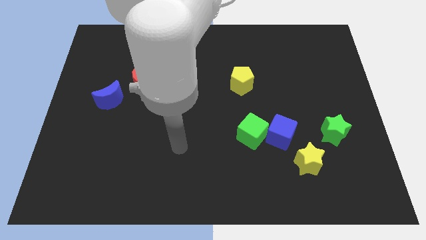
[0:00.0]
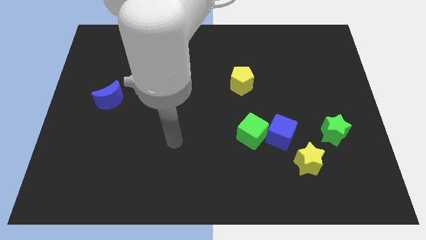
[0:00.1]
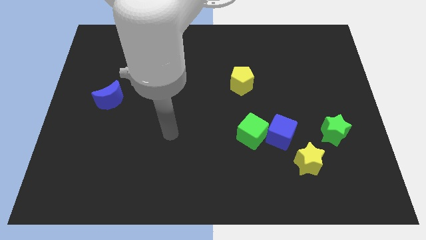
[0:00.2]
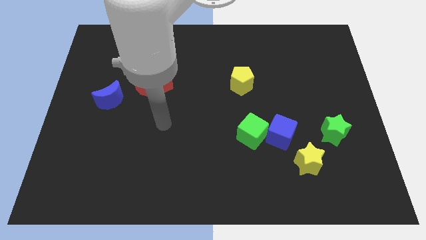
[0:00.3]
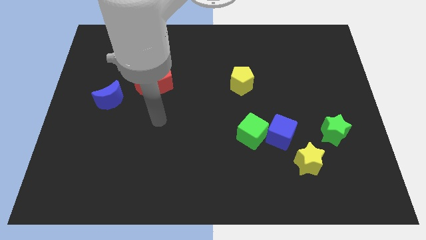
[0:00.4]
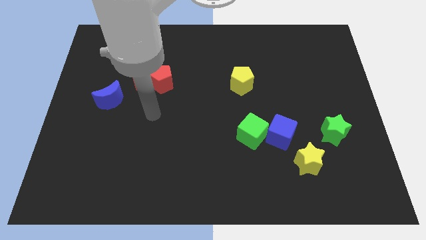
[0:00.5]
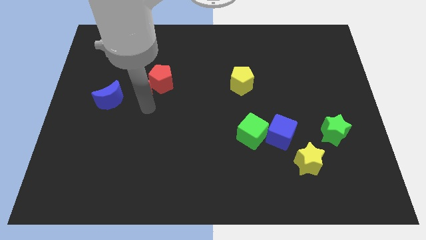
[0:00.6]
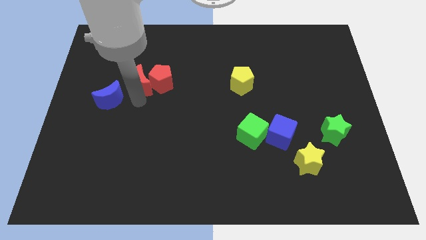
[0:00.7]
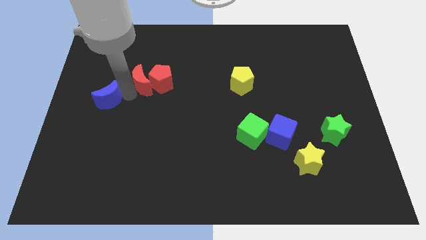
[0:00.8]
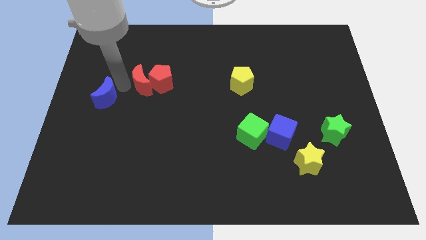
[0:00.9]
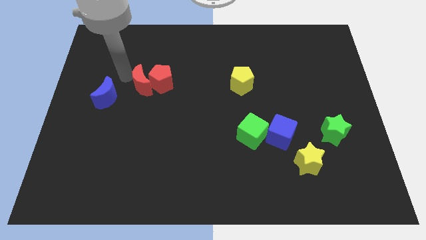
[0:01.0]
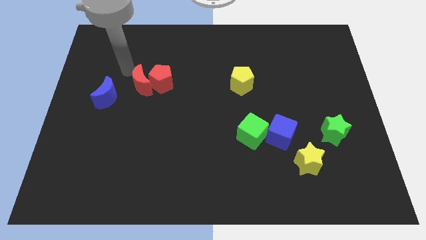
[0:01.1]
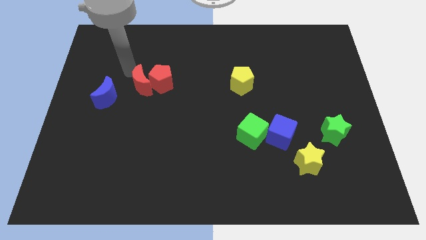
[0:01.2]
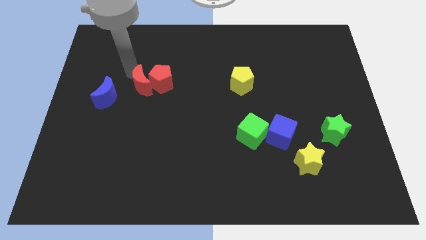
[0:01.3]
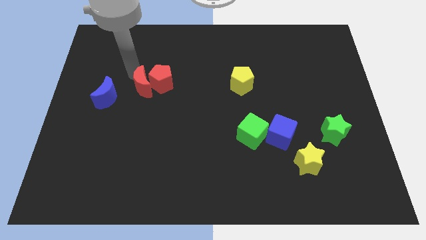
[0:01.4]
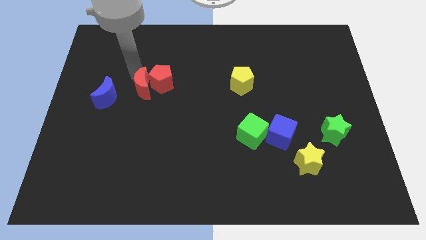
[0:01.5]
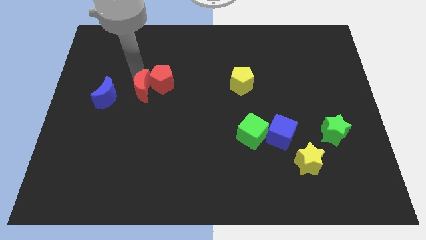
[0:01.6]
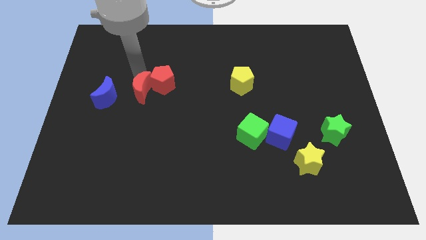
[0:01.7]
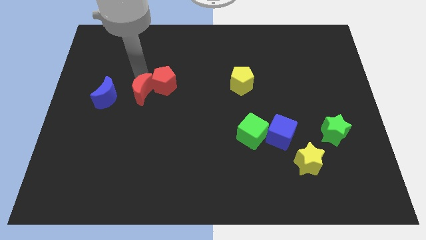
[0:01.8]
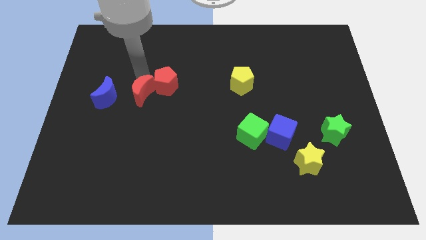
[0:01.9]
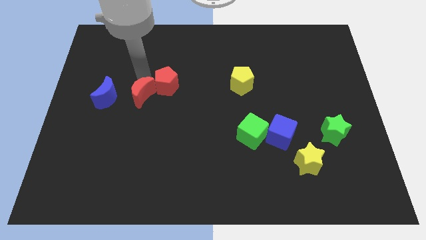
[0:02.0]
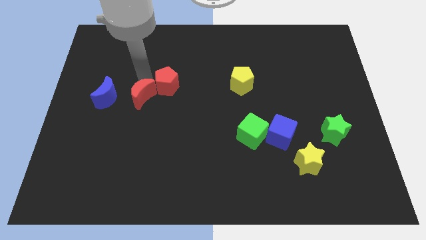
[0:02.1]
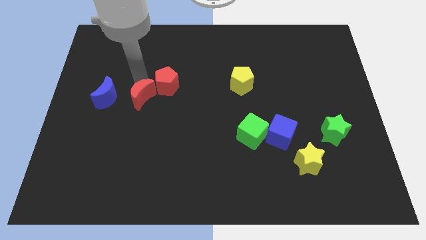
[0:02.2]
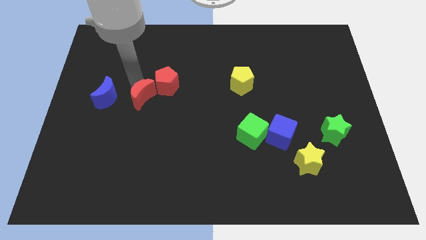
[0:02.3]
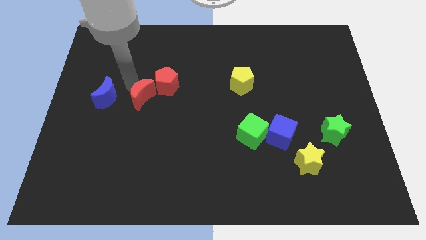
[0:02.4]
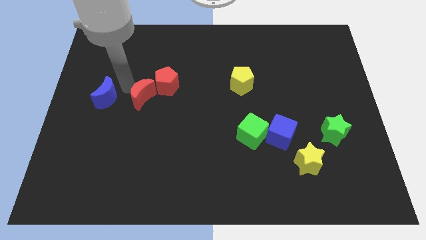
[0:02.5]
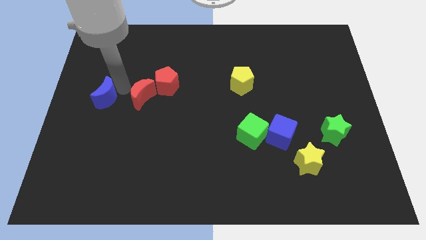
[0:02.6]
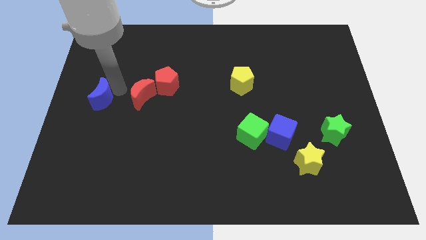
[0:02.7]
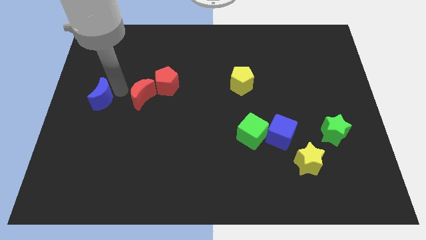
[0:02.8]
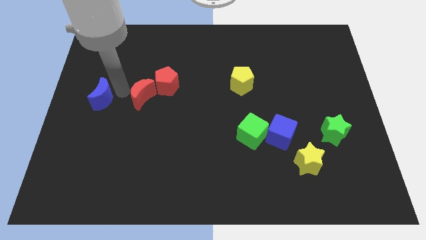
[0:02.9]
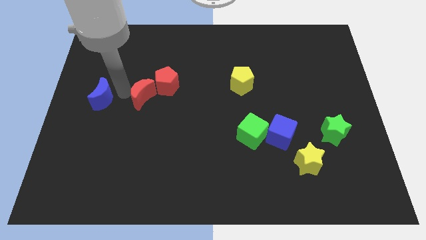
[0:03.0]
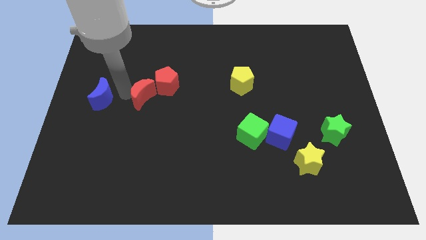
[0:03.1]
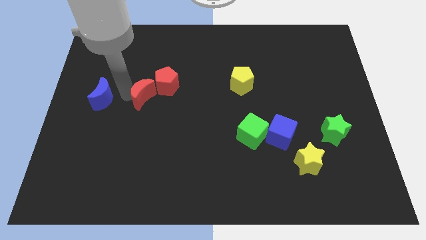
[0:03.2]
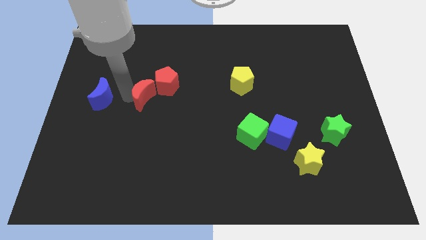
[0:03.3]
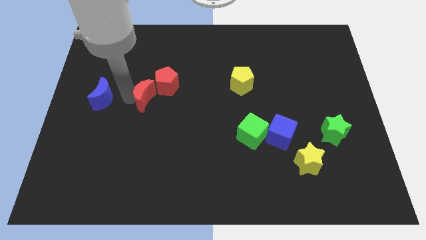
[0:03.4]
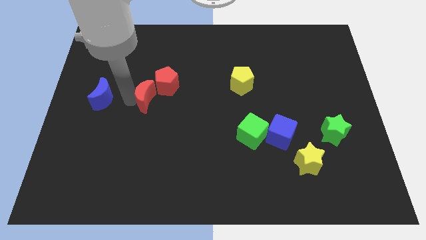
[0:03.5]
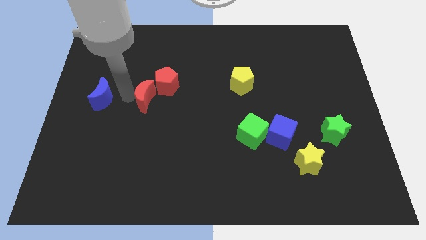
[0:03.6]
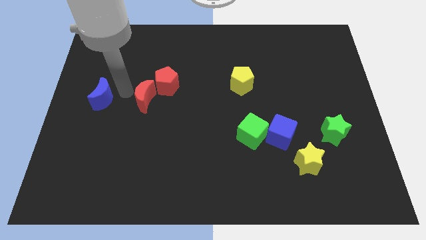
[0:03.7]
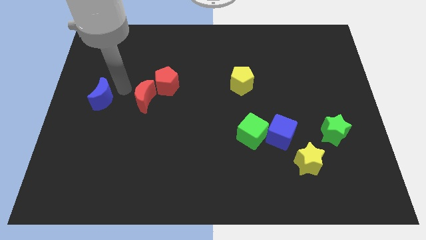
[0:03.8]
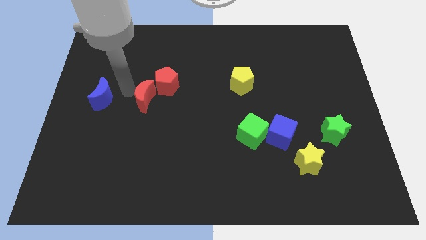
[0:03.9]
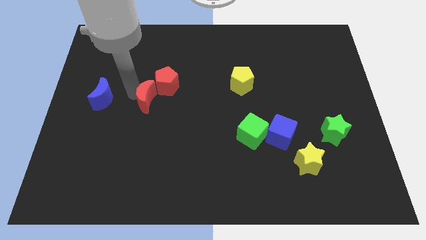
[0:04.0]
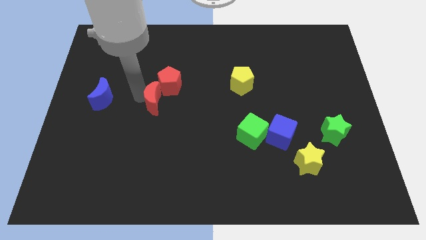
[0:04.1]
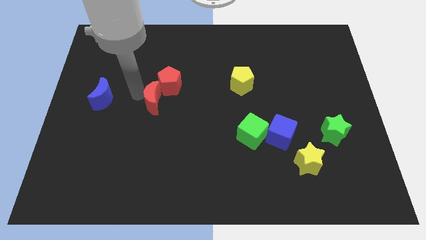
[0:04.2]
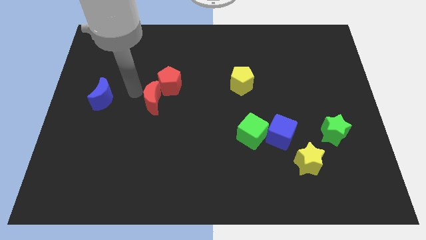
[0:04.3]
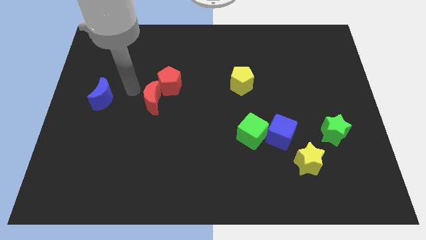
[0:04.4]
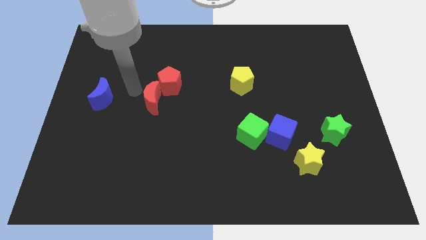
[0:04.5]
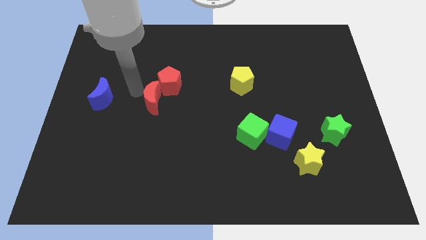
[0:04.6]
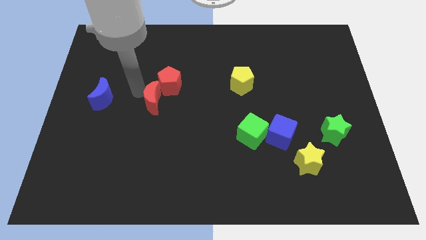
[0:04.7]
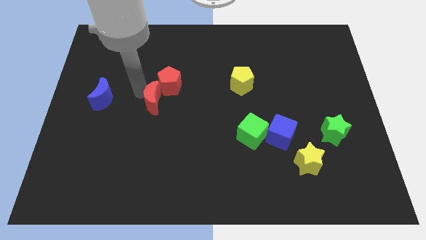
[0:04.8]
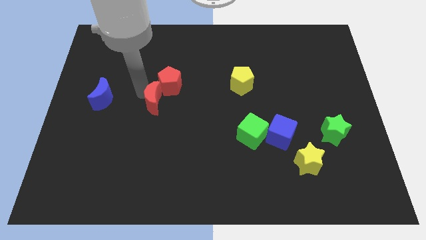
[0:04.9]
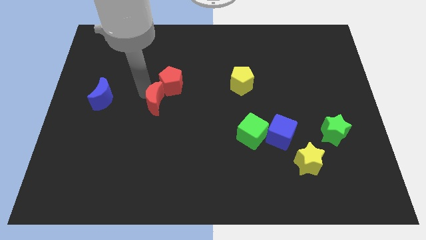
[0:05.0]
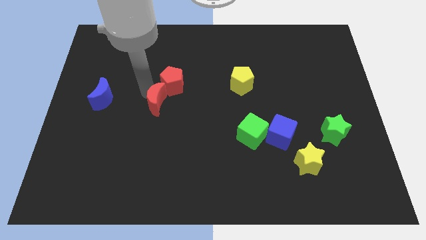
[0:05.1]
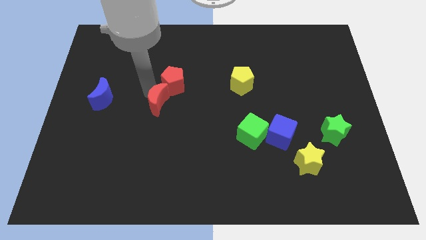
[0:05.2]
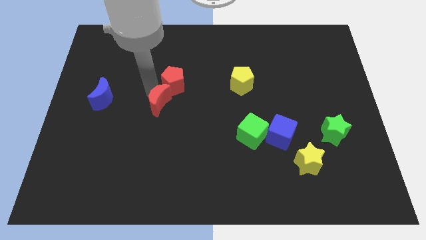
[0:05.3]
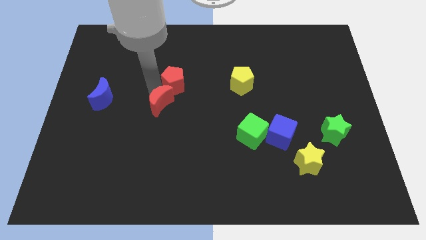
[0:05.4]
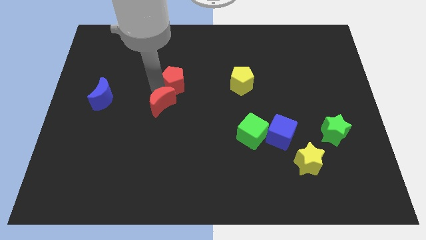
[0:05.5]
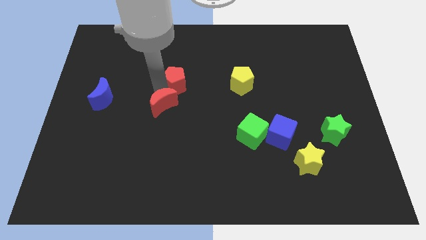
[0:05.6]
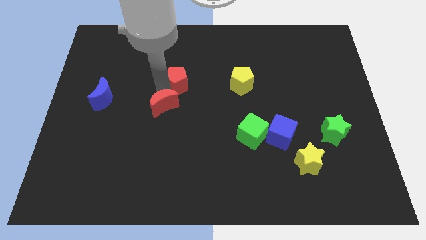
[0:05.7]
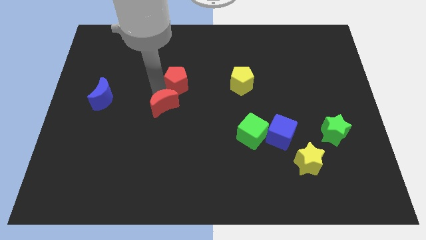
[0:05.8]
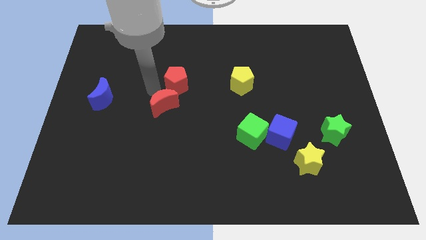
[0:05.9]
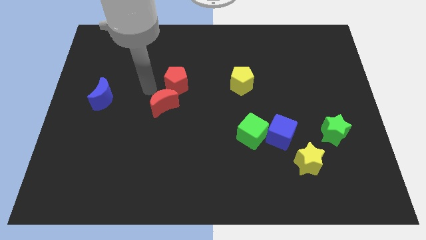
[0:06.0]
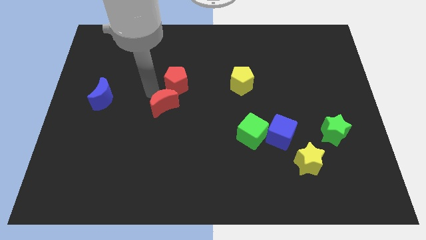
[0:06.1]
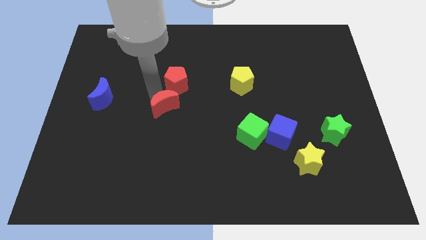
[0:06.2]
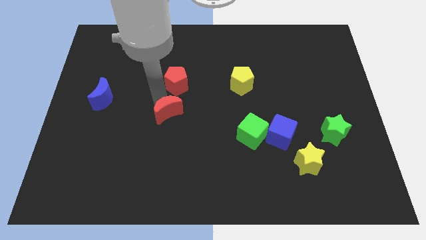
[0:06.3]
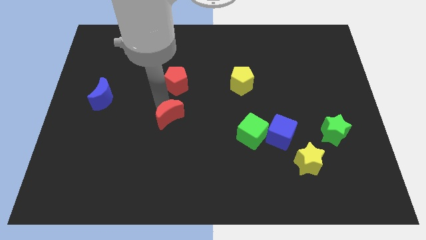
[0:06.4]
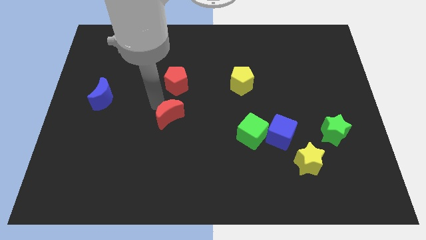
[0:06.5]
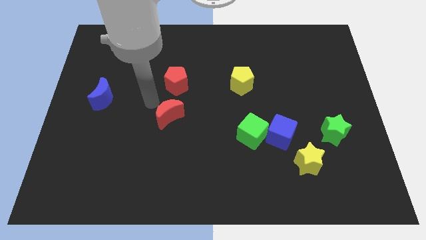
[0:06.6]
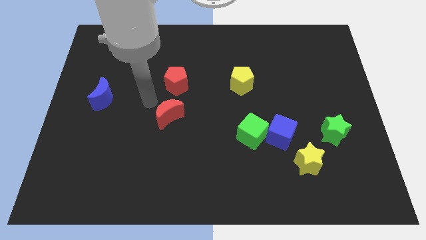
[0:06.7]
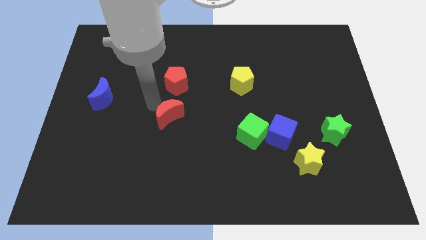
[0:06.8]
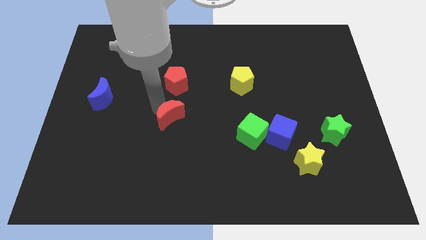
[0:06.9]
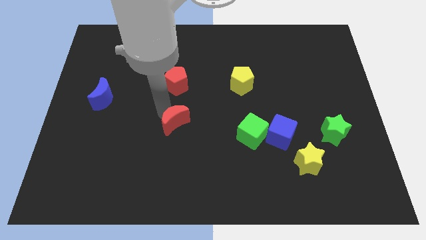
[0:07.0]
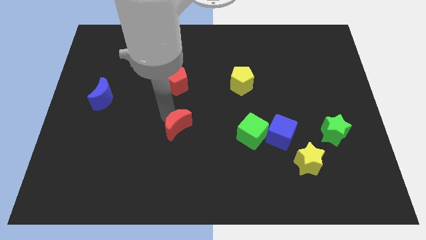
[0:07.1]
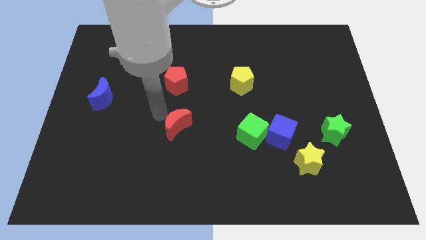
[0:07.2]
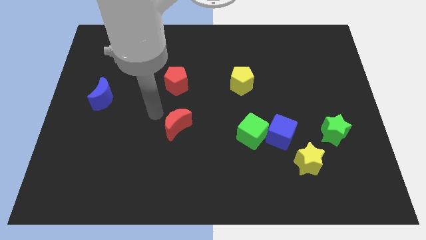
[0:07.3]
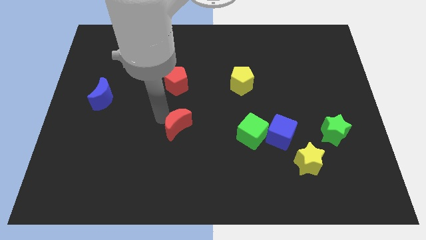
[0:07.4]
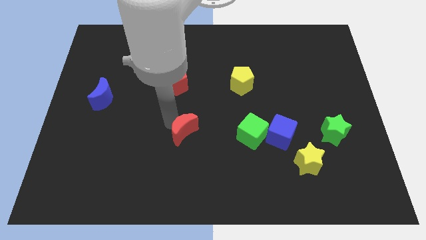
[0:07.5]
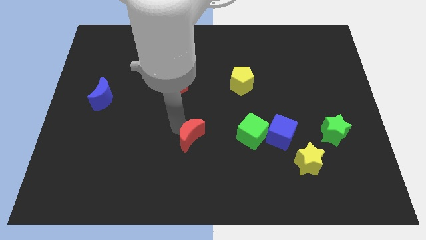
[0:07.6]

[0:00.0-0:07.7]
slide the red moon downwards and then right

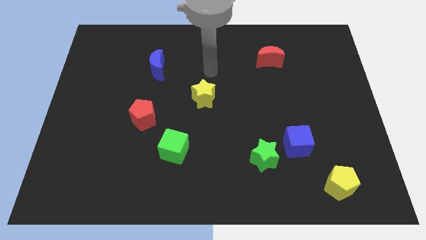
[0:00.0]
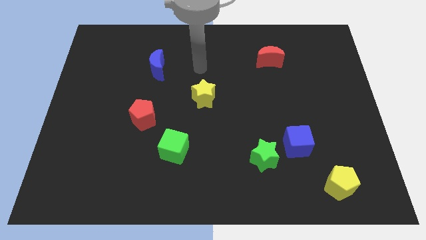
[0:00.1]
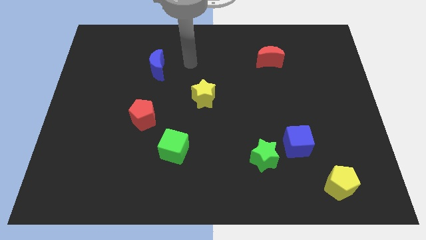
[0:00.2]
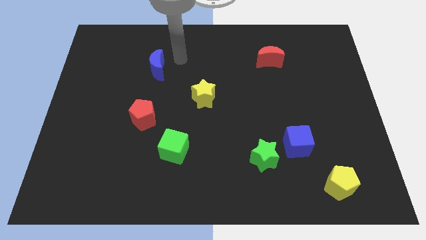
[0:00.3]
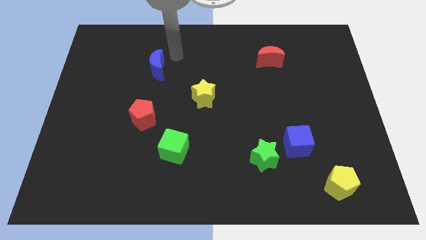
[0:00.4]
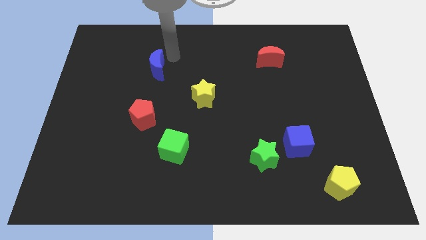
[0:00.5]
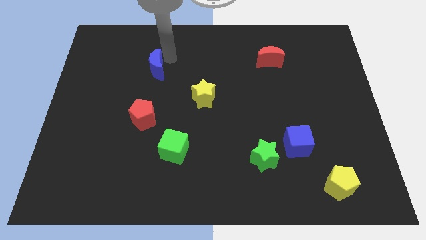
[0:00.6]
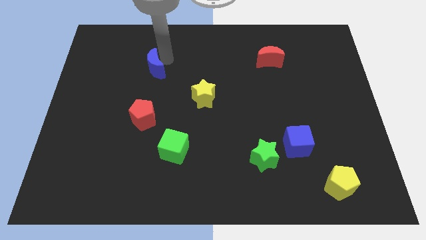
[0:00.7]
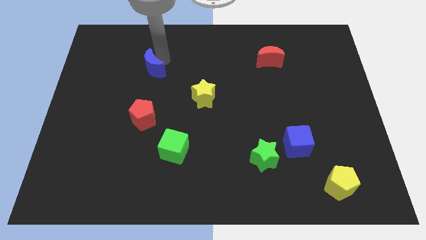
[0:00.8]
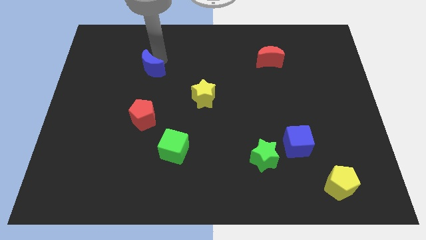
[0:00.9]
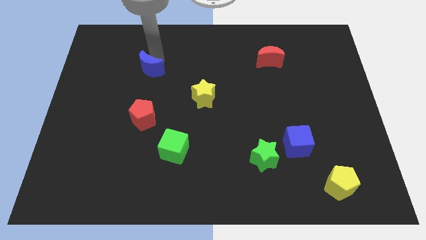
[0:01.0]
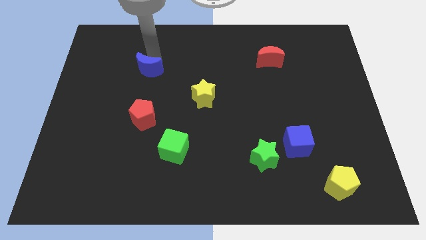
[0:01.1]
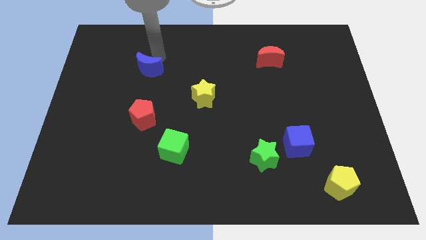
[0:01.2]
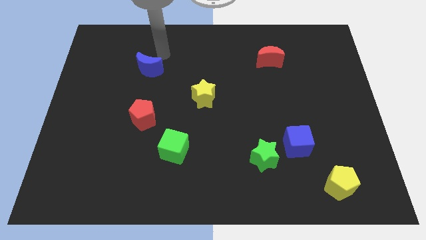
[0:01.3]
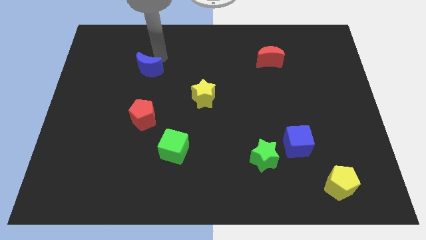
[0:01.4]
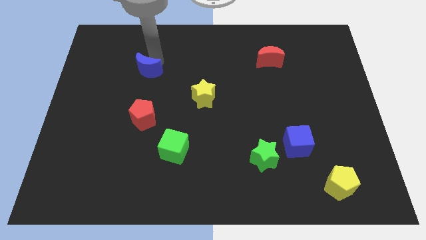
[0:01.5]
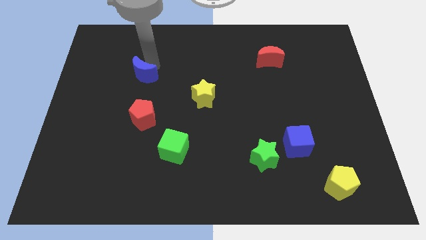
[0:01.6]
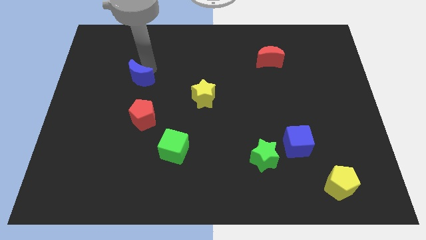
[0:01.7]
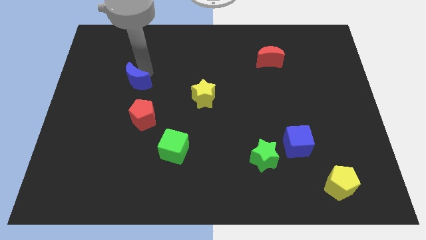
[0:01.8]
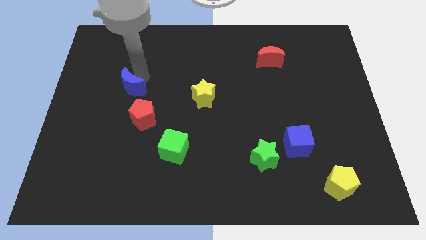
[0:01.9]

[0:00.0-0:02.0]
slide the blue moon down and left slightly
